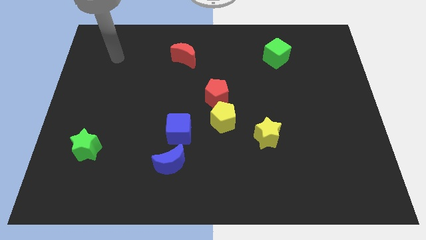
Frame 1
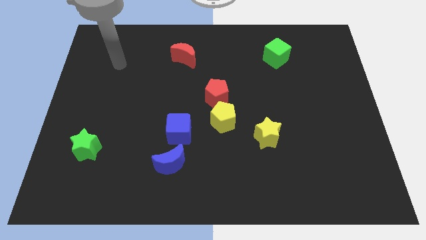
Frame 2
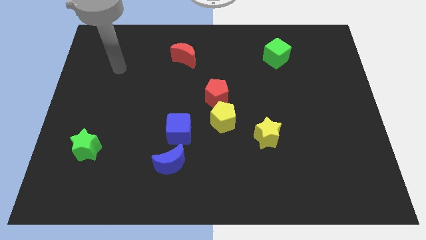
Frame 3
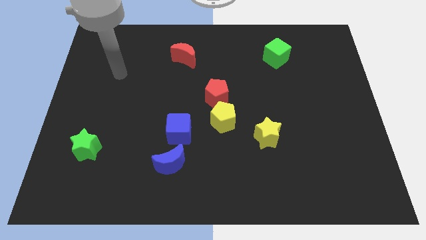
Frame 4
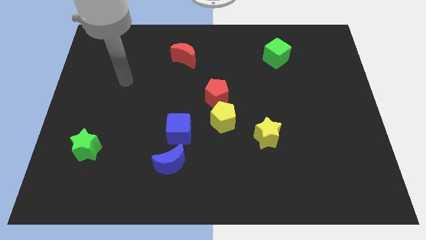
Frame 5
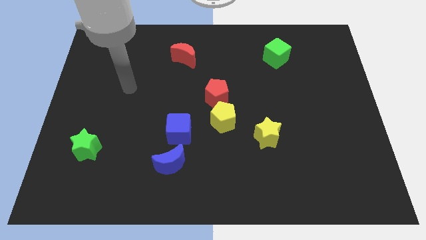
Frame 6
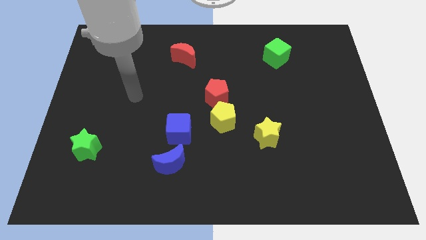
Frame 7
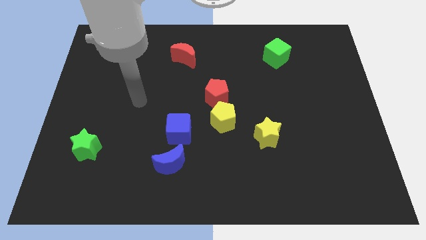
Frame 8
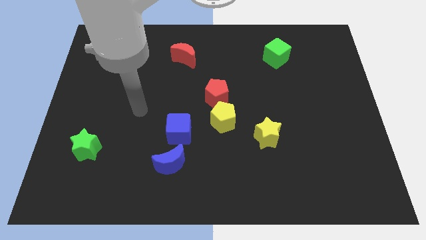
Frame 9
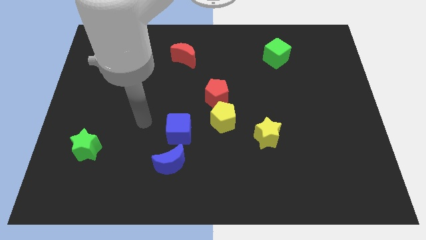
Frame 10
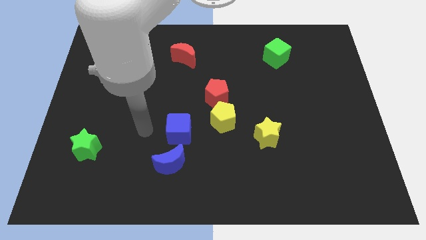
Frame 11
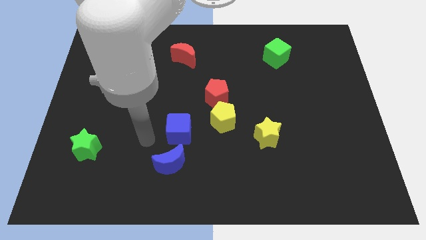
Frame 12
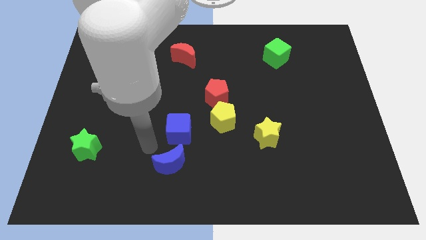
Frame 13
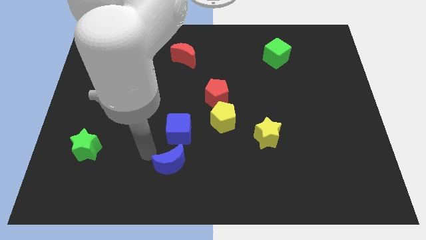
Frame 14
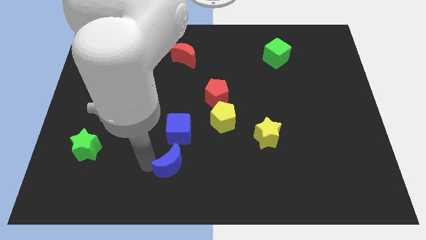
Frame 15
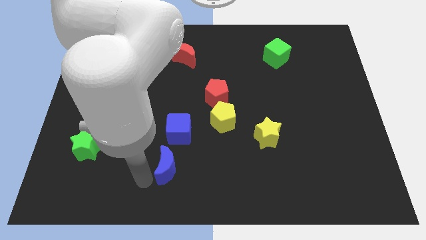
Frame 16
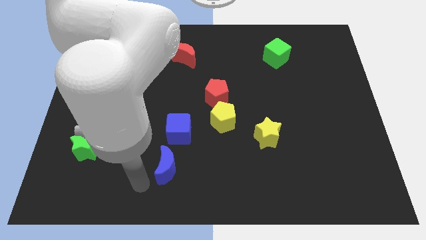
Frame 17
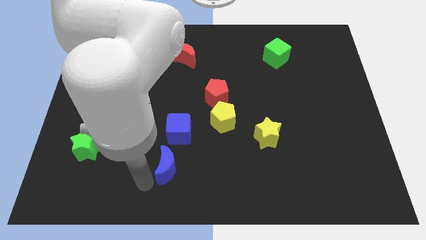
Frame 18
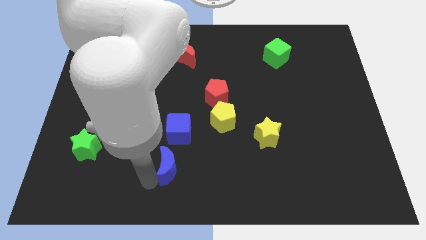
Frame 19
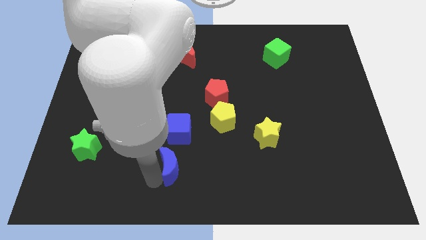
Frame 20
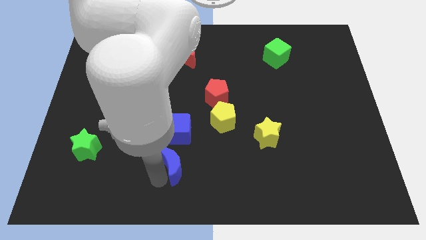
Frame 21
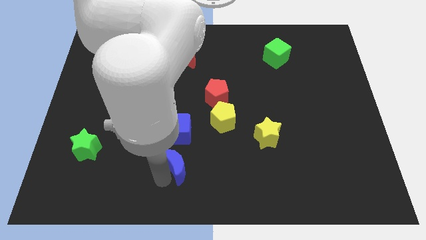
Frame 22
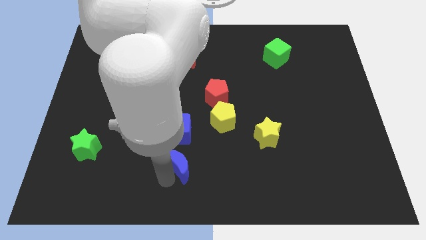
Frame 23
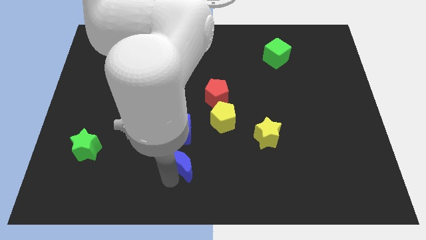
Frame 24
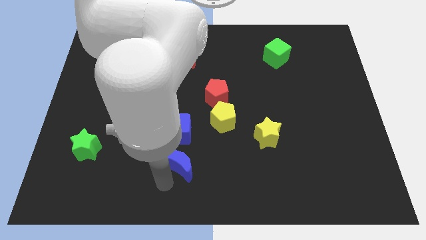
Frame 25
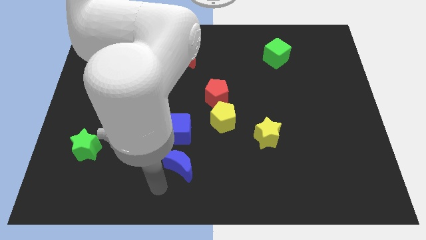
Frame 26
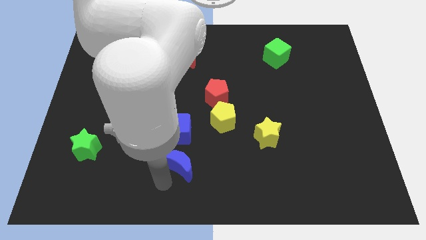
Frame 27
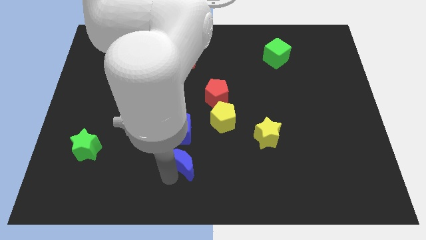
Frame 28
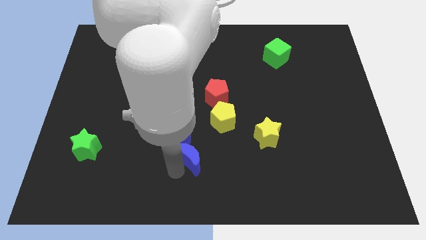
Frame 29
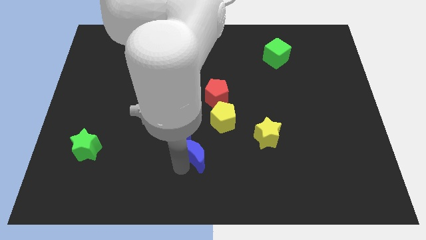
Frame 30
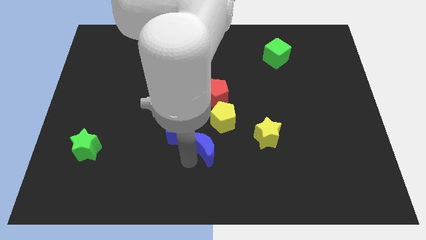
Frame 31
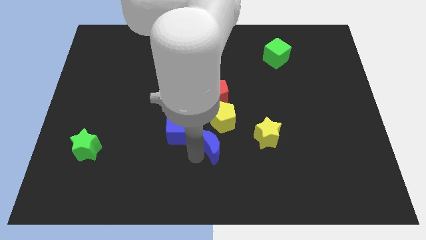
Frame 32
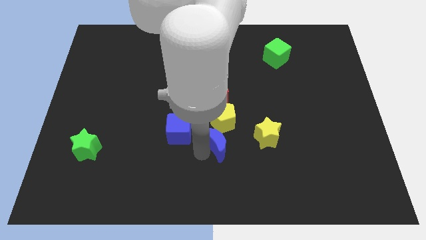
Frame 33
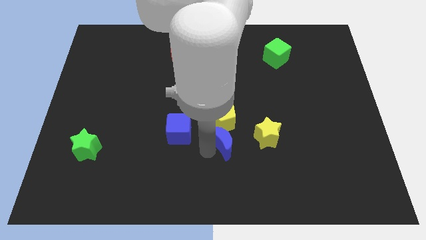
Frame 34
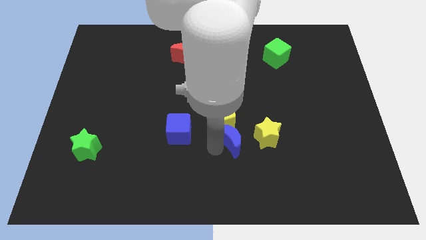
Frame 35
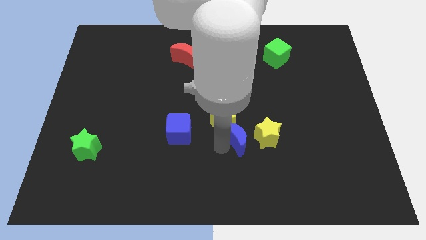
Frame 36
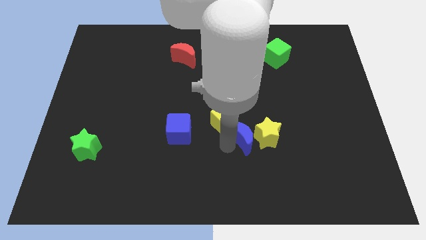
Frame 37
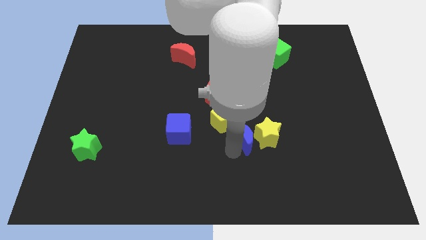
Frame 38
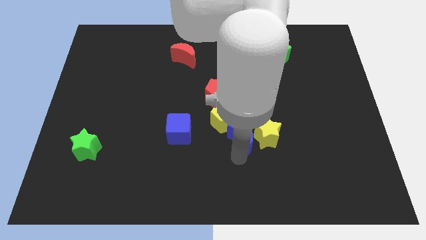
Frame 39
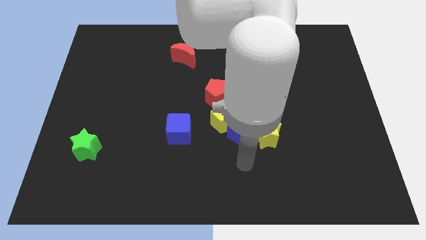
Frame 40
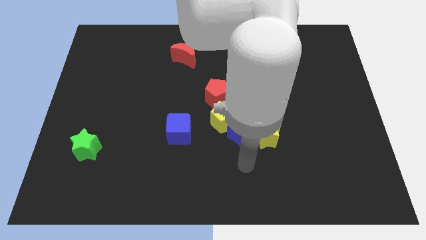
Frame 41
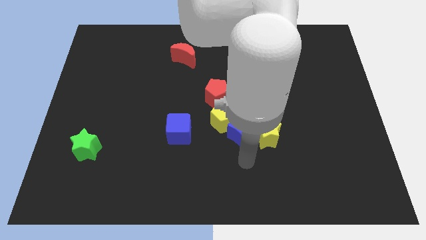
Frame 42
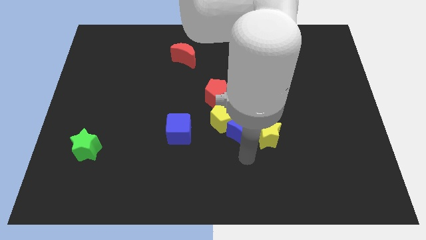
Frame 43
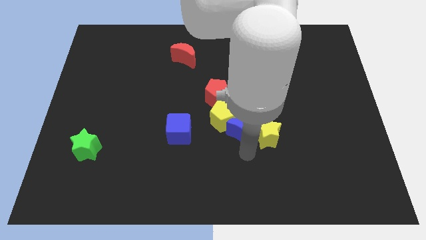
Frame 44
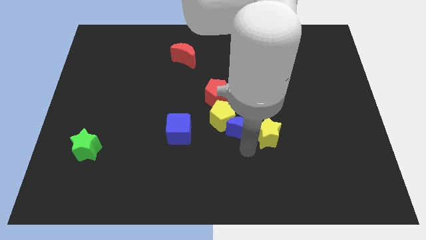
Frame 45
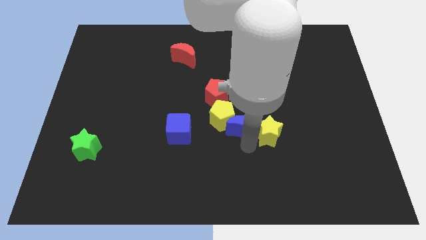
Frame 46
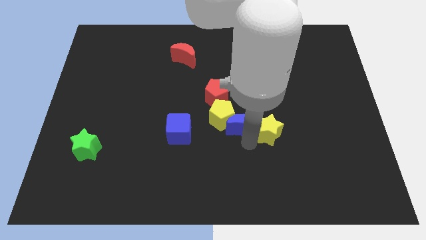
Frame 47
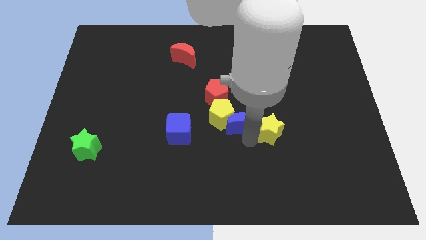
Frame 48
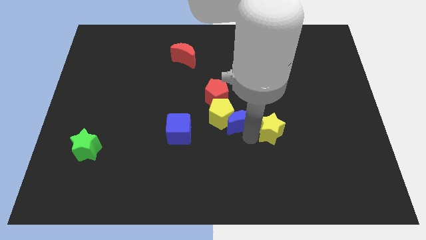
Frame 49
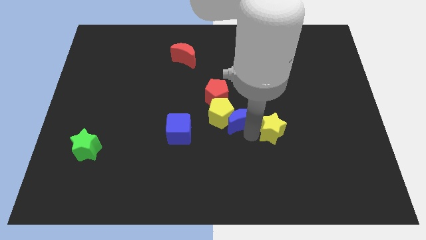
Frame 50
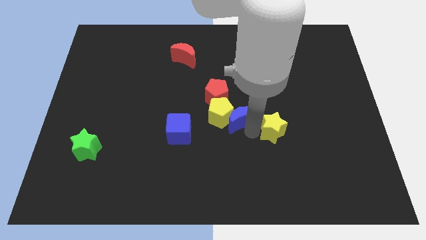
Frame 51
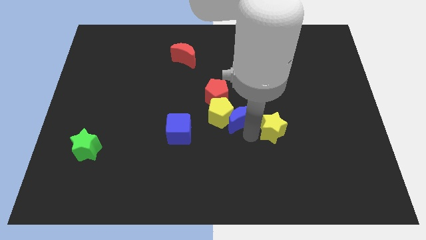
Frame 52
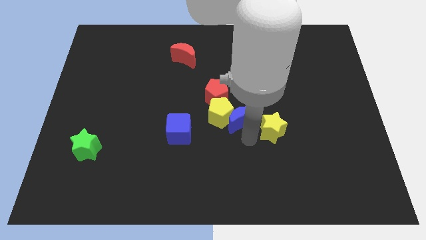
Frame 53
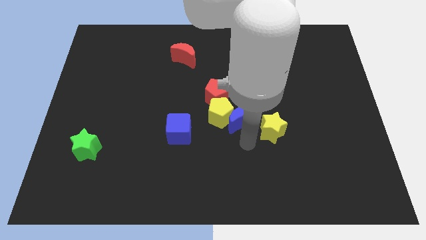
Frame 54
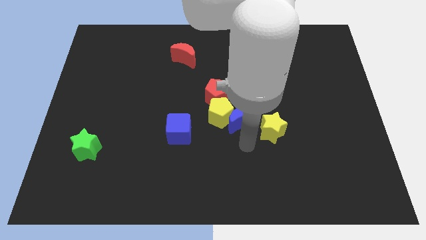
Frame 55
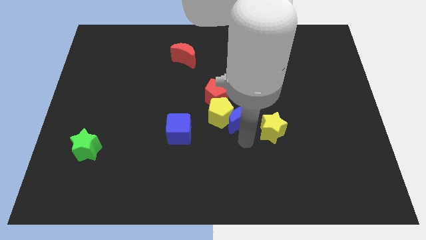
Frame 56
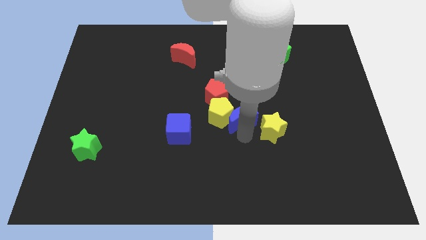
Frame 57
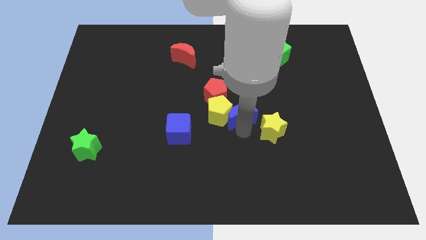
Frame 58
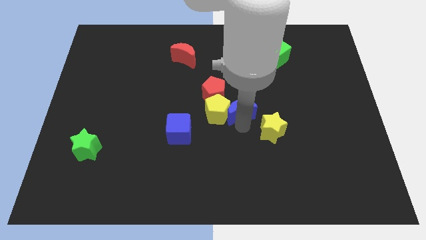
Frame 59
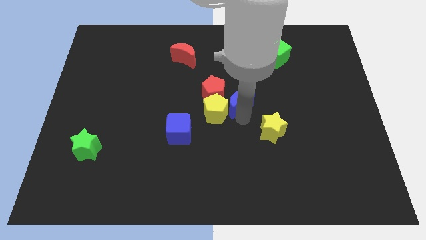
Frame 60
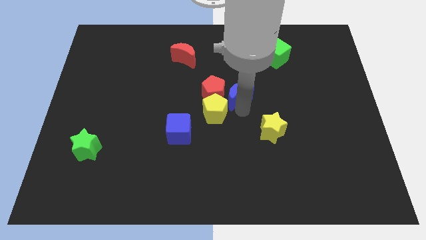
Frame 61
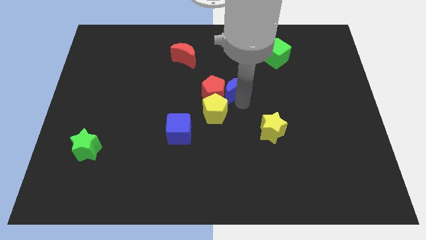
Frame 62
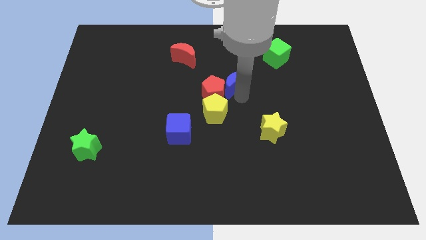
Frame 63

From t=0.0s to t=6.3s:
slide the blue moon to the top side of the yellow pentagon
